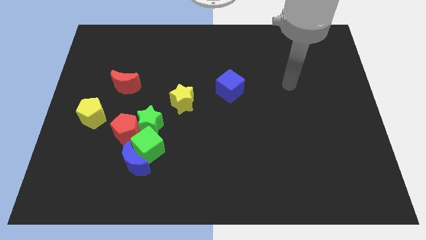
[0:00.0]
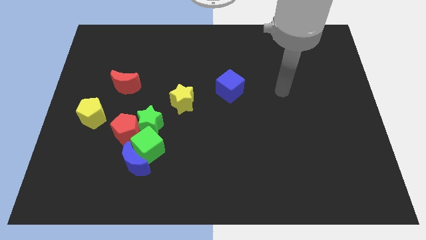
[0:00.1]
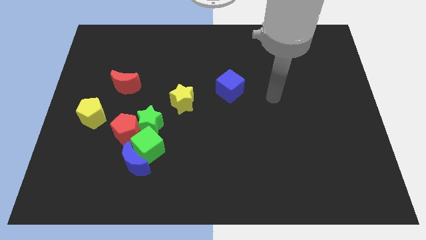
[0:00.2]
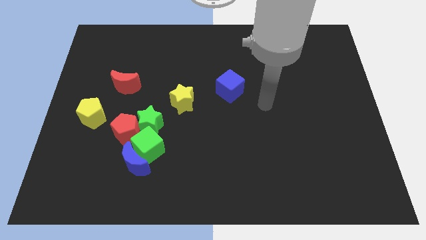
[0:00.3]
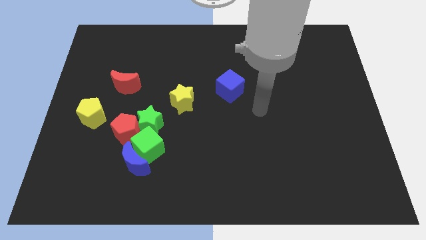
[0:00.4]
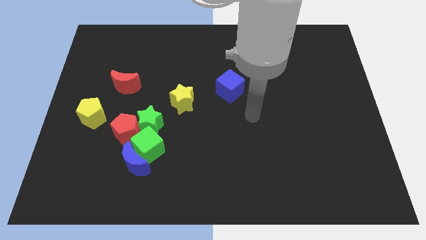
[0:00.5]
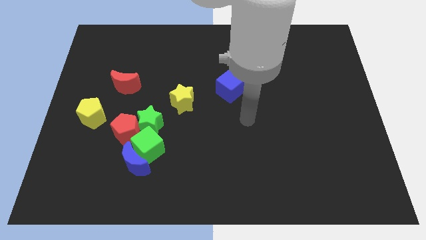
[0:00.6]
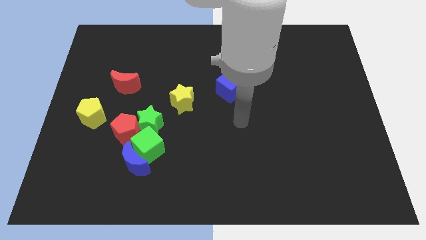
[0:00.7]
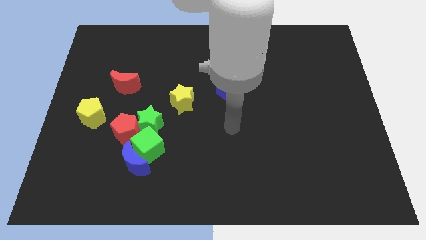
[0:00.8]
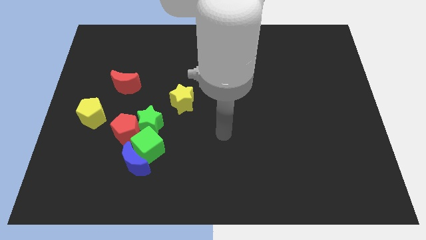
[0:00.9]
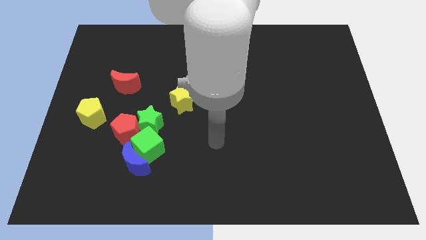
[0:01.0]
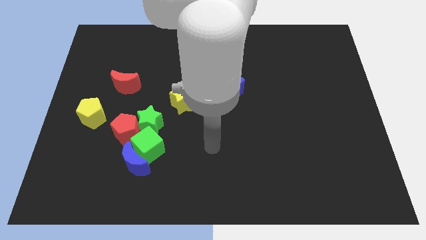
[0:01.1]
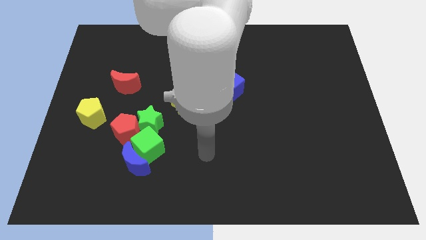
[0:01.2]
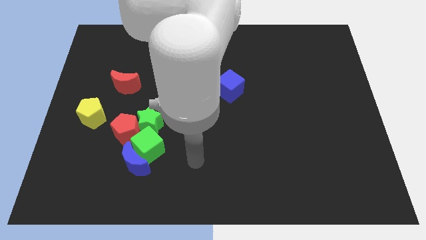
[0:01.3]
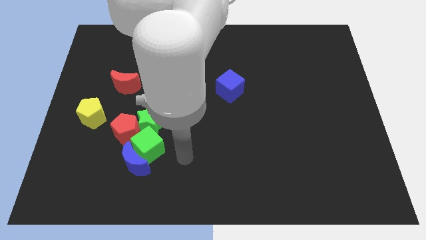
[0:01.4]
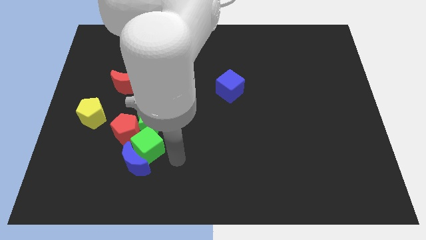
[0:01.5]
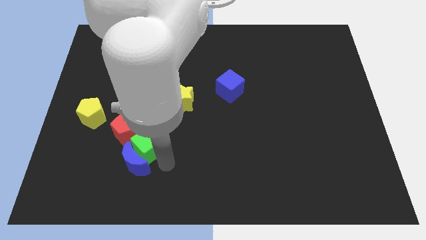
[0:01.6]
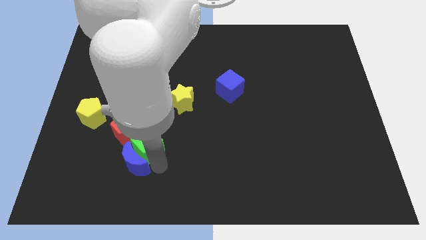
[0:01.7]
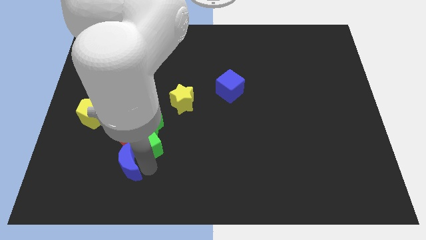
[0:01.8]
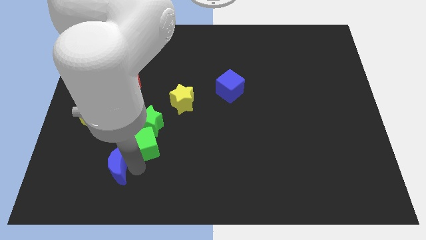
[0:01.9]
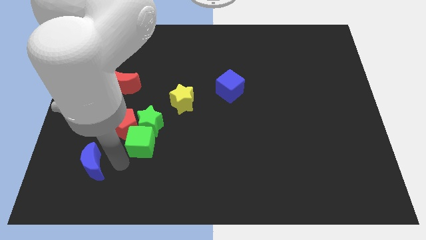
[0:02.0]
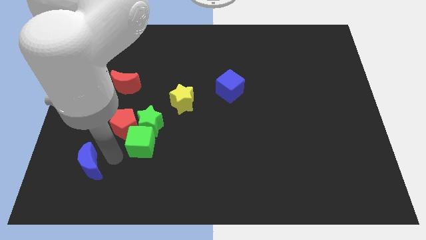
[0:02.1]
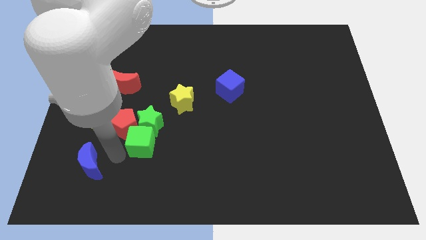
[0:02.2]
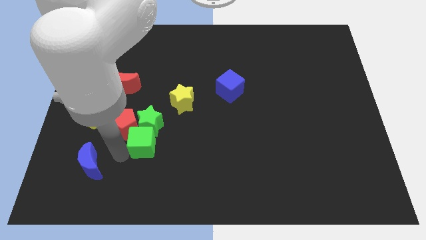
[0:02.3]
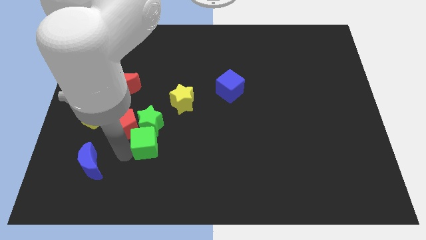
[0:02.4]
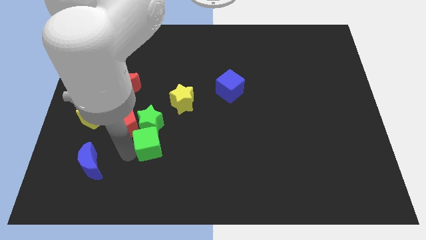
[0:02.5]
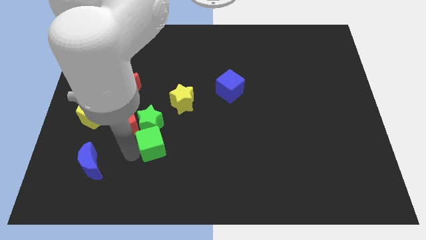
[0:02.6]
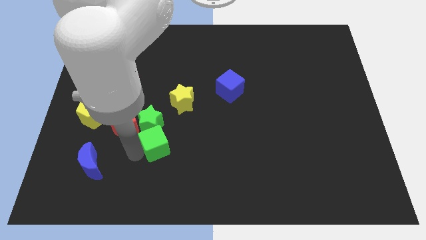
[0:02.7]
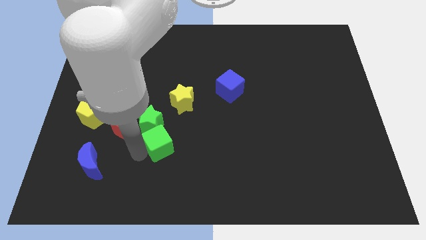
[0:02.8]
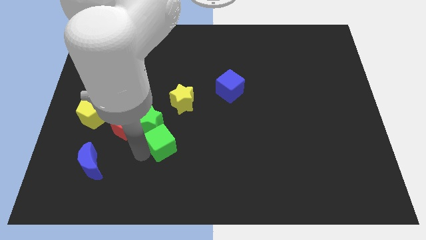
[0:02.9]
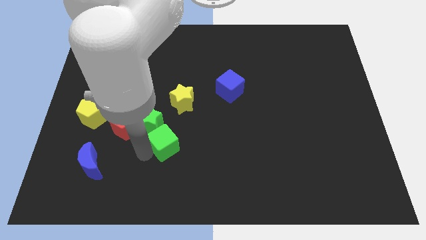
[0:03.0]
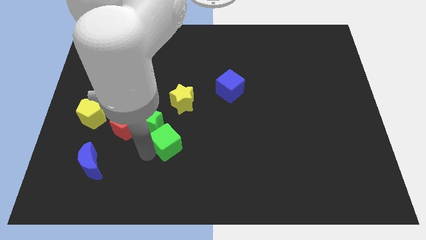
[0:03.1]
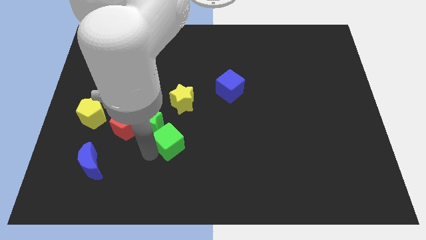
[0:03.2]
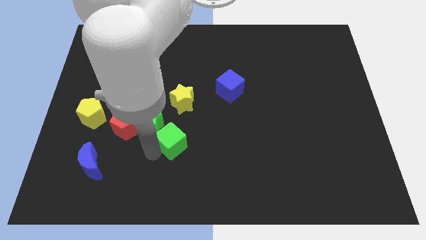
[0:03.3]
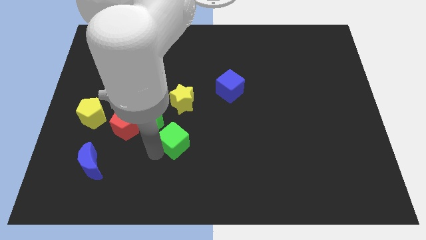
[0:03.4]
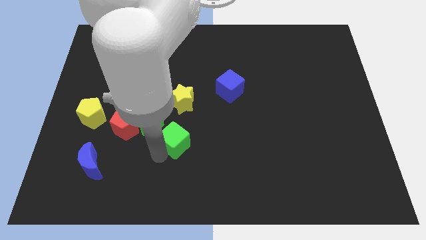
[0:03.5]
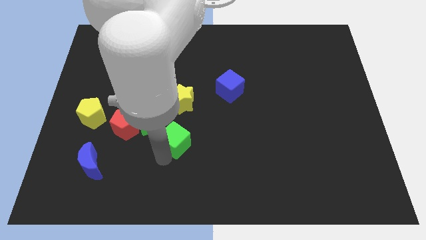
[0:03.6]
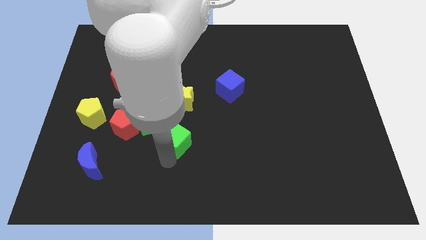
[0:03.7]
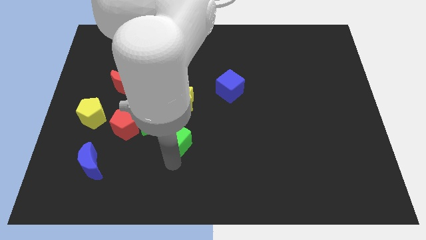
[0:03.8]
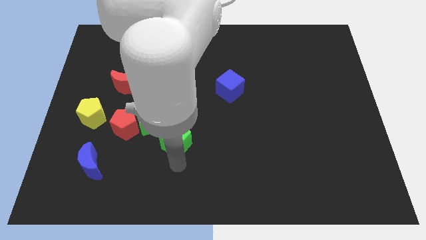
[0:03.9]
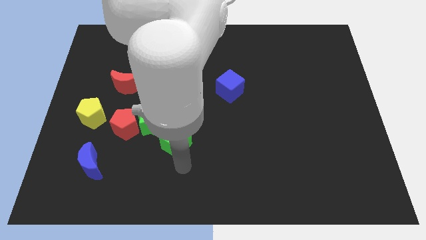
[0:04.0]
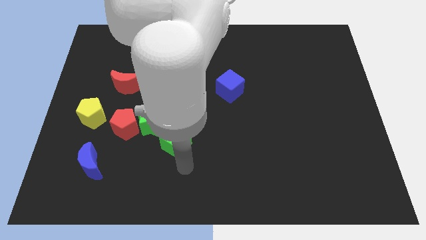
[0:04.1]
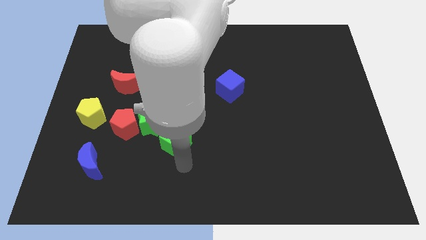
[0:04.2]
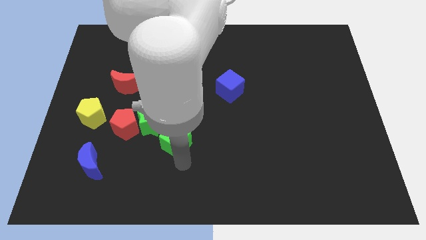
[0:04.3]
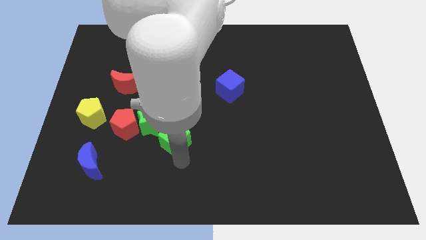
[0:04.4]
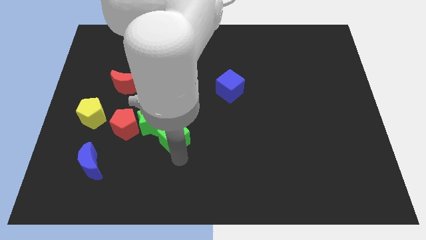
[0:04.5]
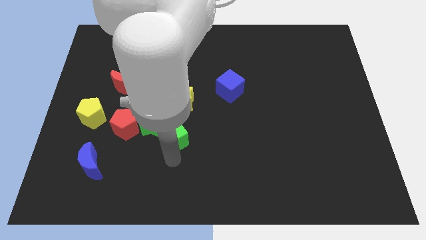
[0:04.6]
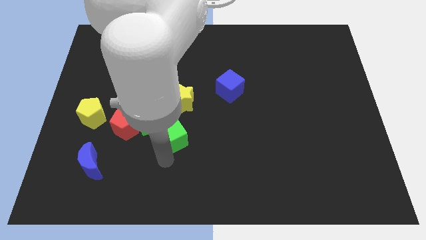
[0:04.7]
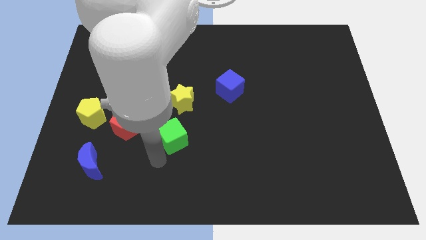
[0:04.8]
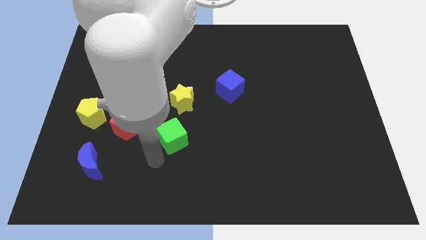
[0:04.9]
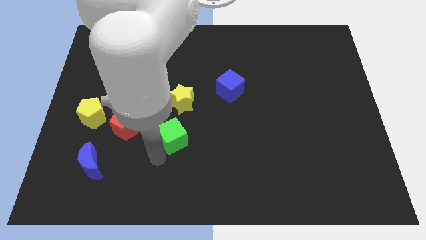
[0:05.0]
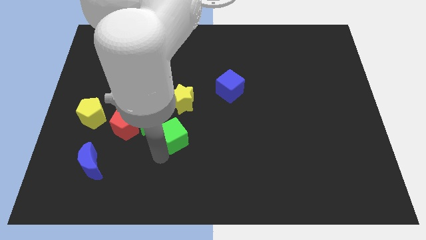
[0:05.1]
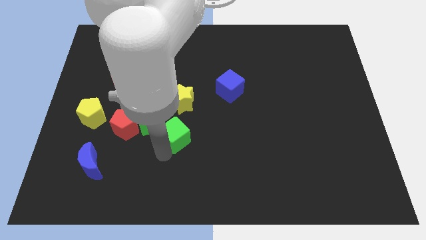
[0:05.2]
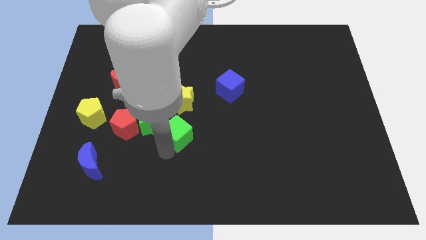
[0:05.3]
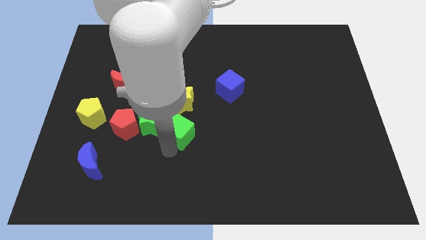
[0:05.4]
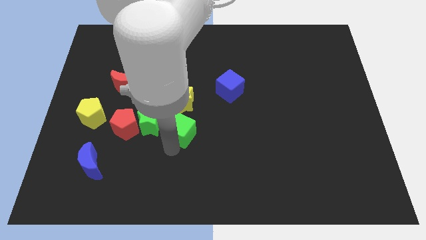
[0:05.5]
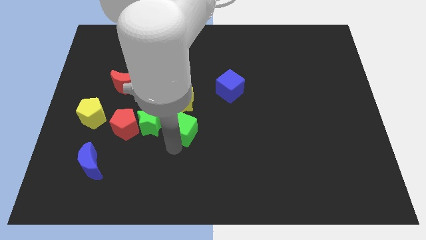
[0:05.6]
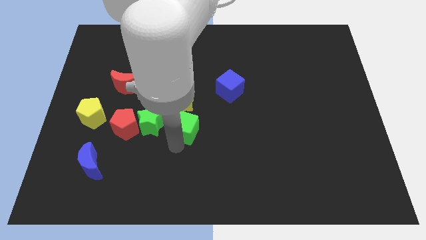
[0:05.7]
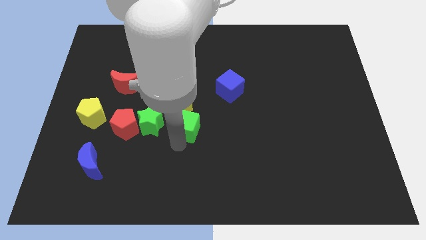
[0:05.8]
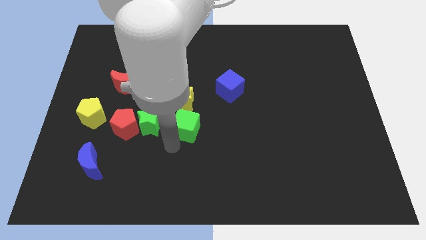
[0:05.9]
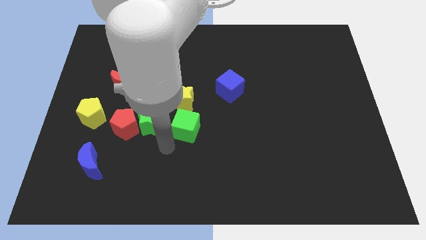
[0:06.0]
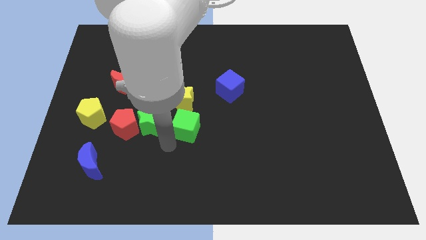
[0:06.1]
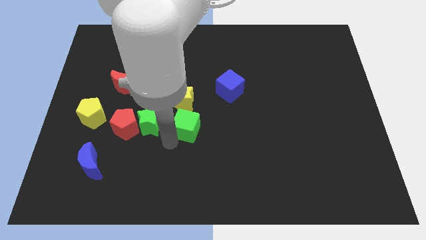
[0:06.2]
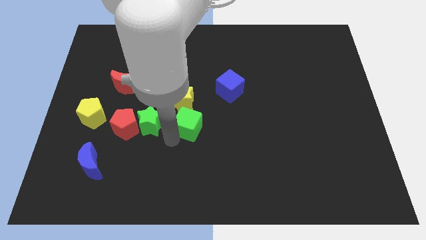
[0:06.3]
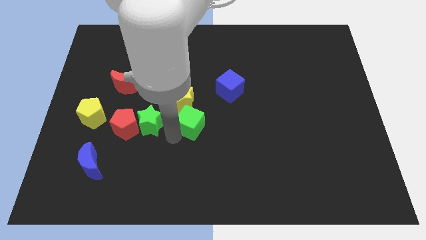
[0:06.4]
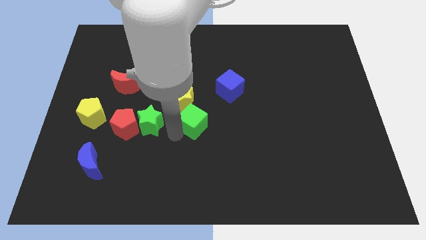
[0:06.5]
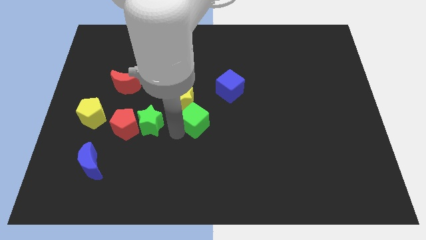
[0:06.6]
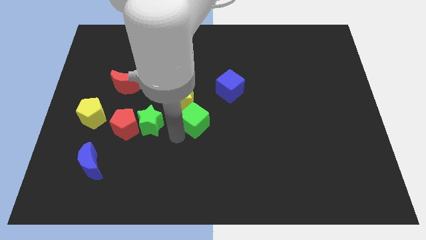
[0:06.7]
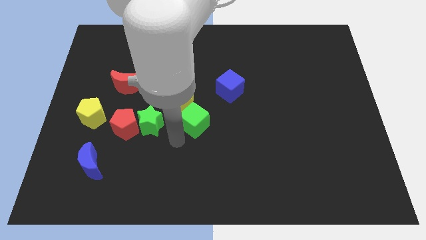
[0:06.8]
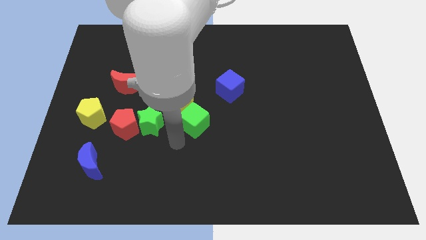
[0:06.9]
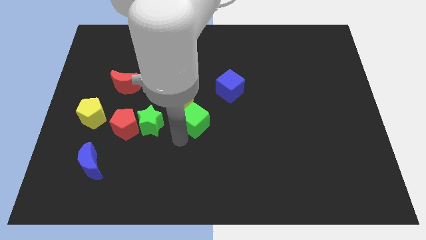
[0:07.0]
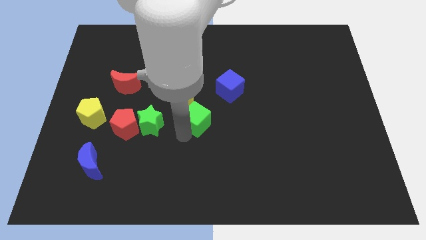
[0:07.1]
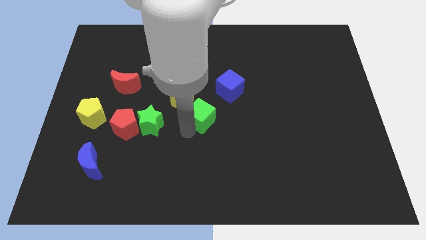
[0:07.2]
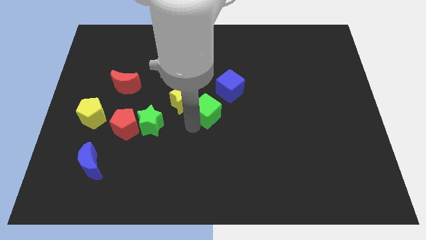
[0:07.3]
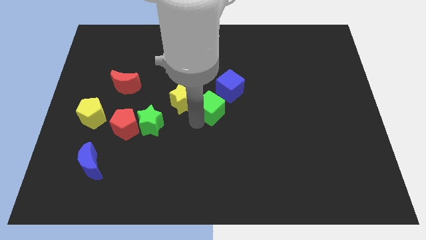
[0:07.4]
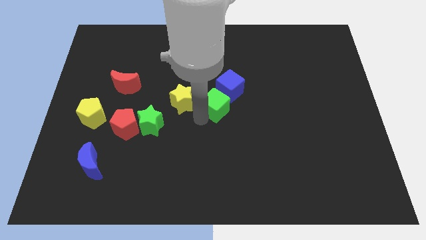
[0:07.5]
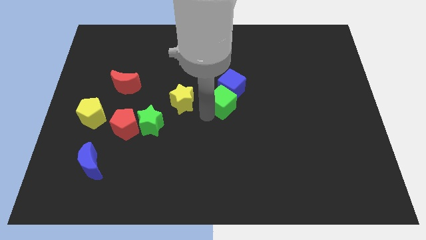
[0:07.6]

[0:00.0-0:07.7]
slide the green cube to the blue cube
